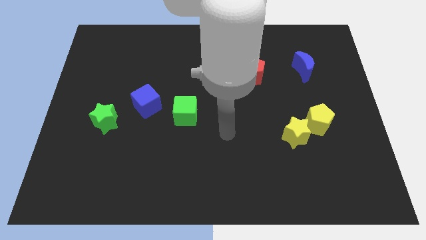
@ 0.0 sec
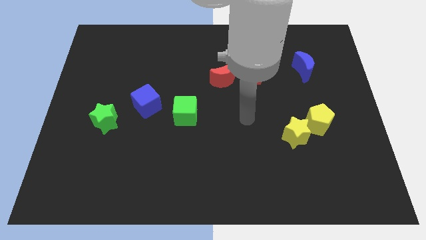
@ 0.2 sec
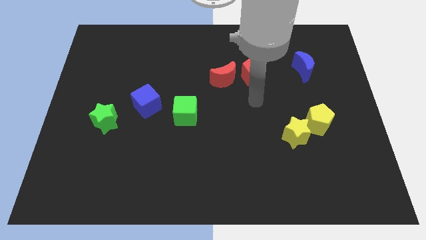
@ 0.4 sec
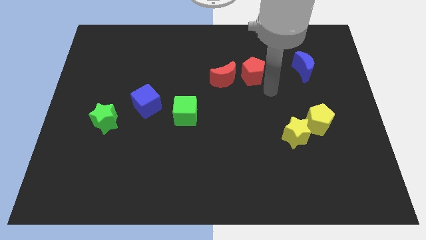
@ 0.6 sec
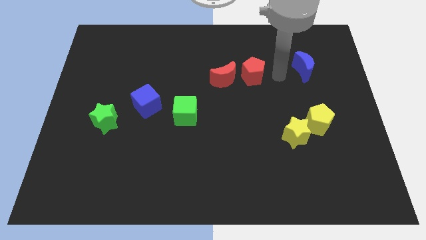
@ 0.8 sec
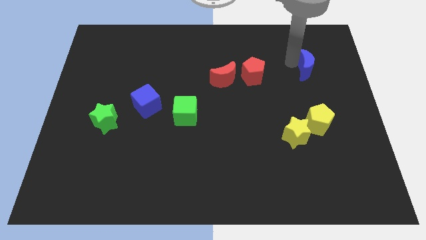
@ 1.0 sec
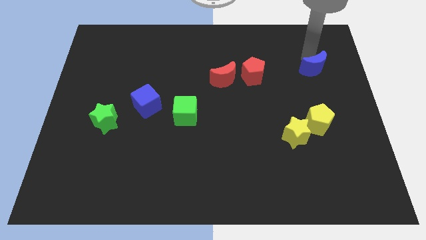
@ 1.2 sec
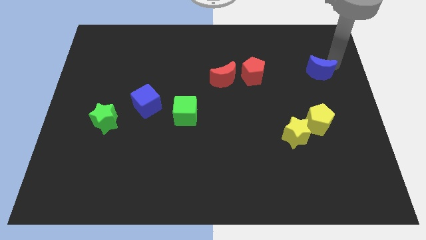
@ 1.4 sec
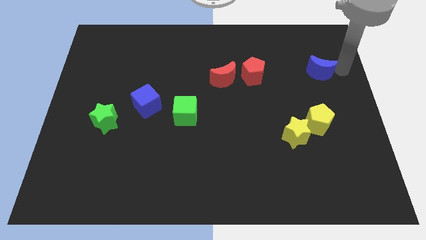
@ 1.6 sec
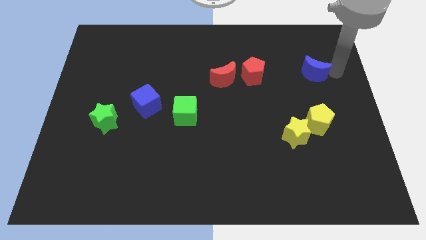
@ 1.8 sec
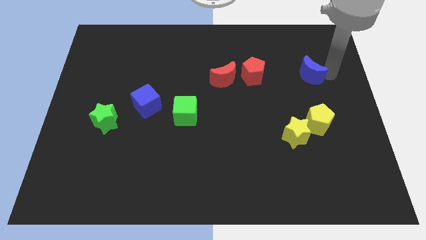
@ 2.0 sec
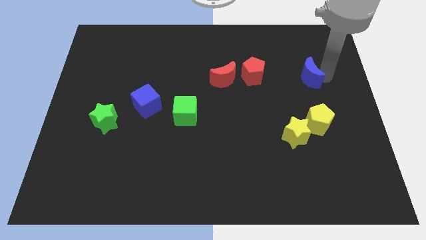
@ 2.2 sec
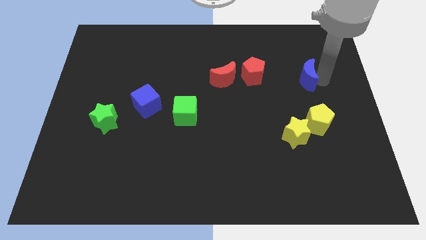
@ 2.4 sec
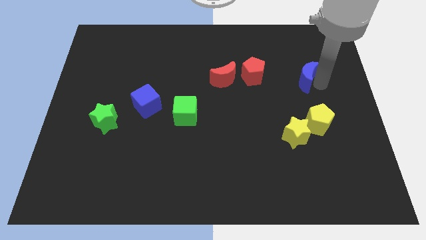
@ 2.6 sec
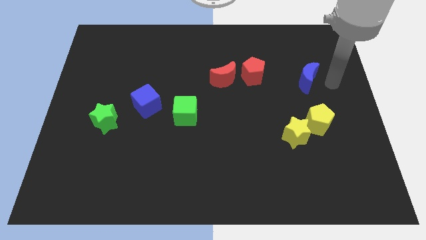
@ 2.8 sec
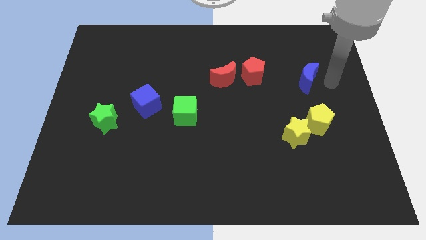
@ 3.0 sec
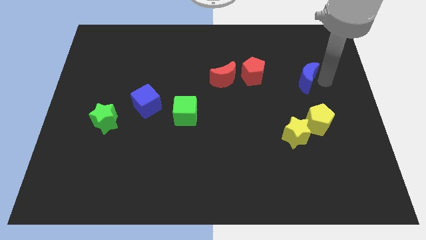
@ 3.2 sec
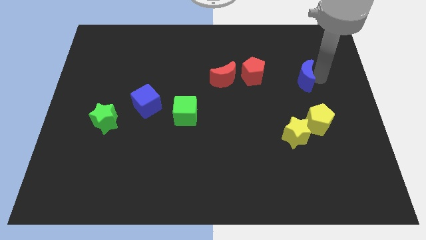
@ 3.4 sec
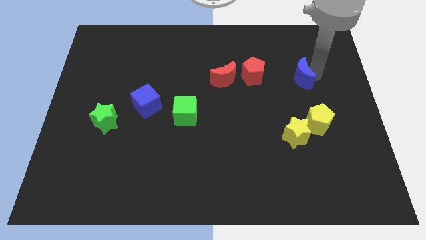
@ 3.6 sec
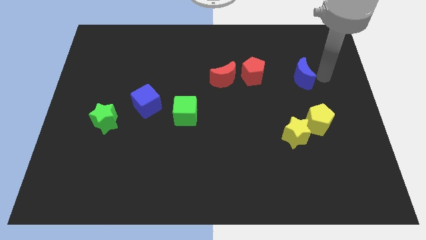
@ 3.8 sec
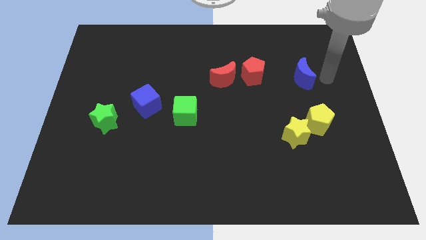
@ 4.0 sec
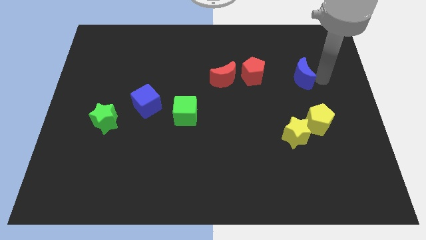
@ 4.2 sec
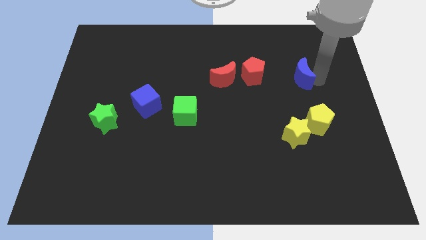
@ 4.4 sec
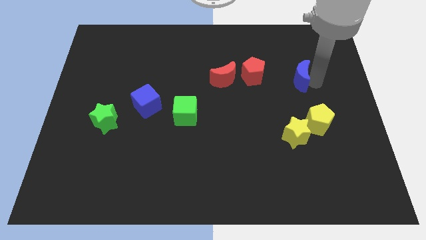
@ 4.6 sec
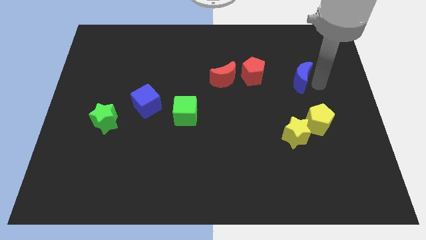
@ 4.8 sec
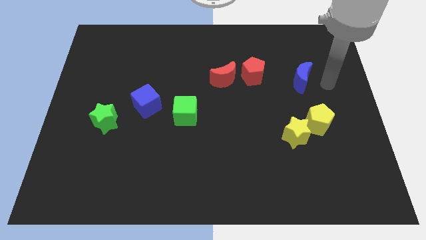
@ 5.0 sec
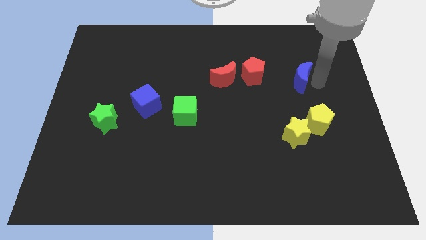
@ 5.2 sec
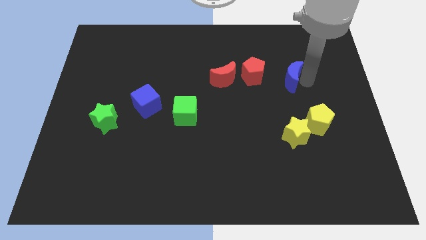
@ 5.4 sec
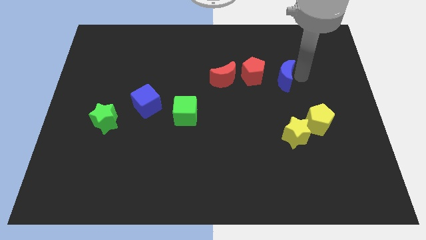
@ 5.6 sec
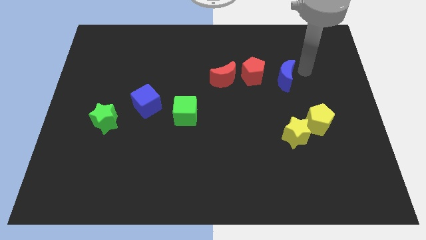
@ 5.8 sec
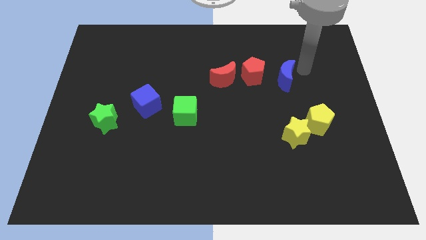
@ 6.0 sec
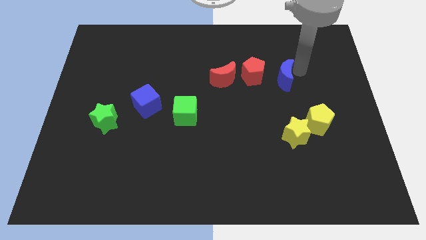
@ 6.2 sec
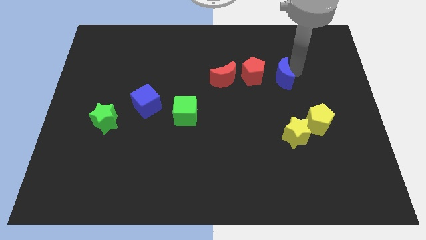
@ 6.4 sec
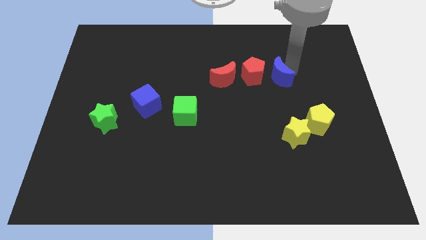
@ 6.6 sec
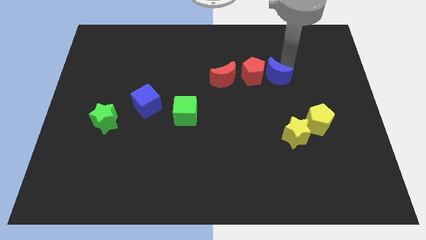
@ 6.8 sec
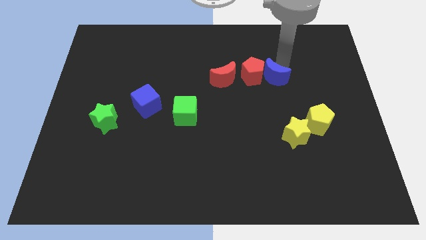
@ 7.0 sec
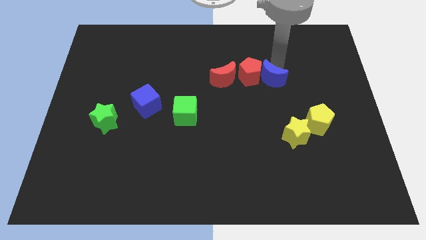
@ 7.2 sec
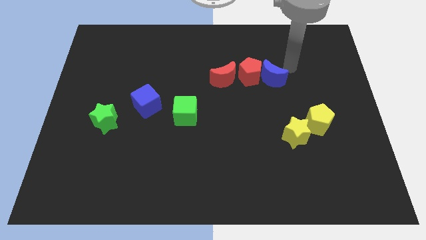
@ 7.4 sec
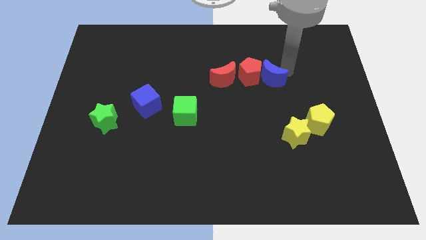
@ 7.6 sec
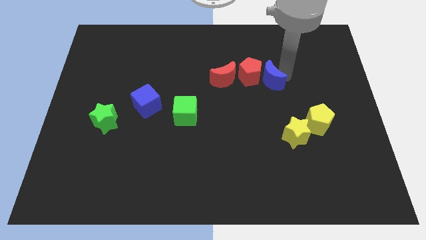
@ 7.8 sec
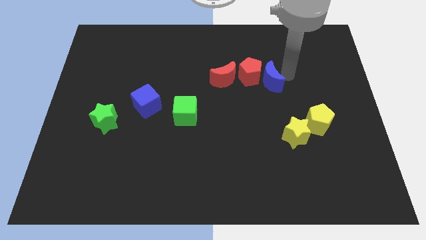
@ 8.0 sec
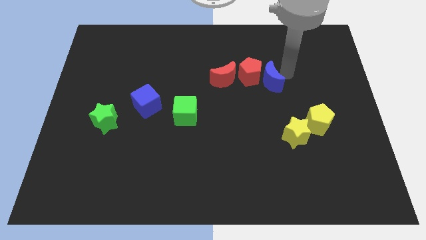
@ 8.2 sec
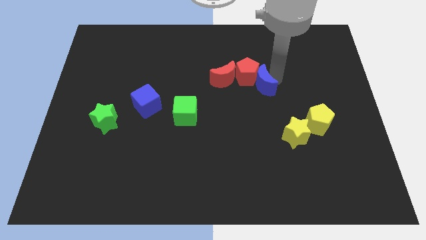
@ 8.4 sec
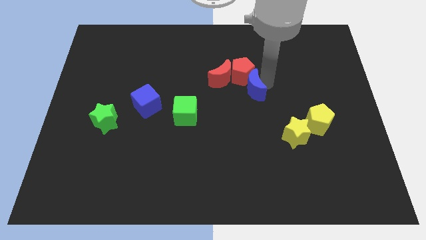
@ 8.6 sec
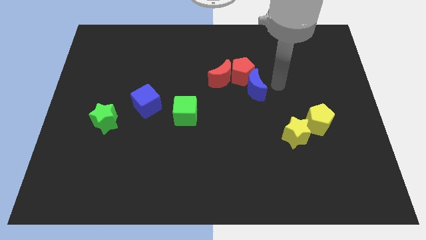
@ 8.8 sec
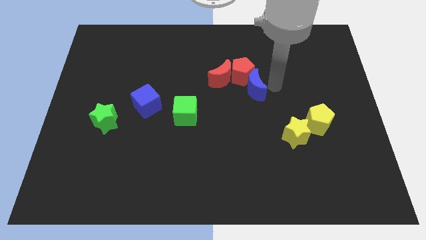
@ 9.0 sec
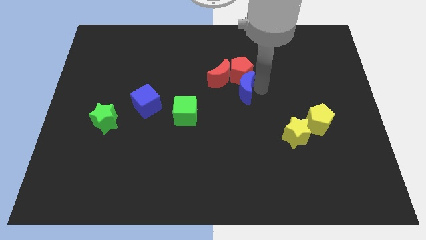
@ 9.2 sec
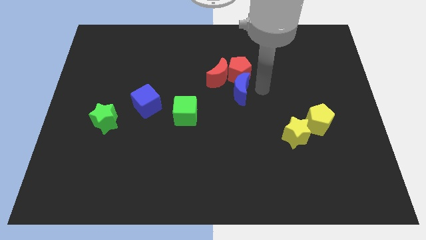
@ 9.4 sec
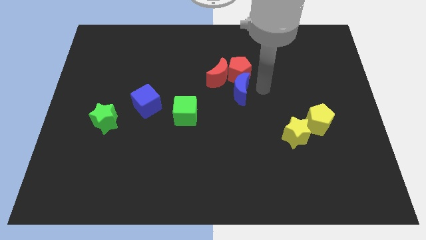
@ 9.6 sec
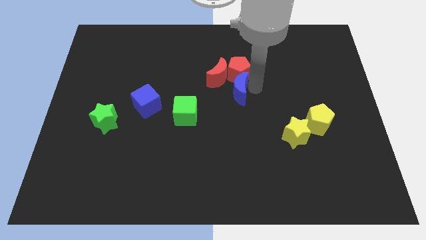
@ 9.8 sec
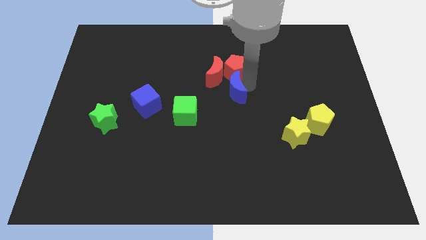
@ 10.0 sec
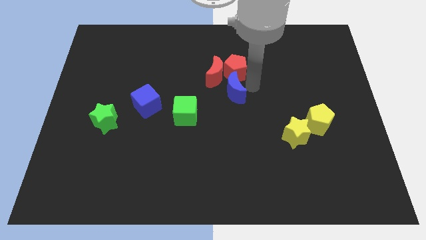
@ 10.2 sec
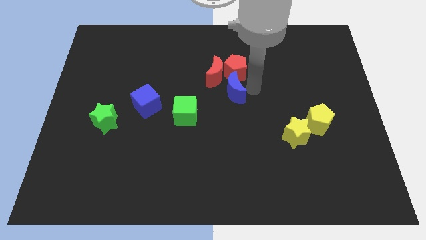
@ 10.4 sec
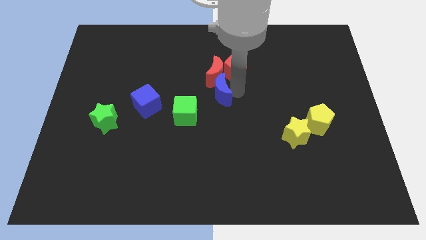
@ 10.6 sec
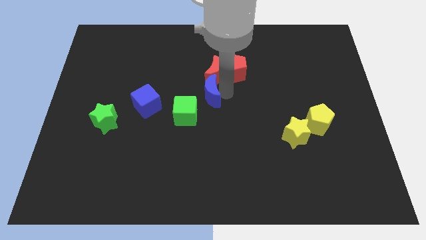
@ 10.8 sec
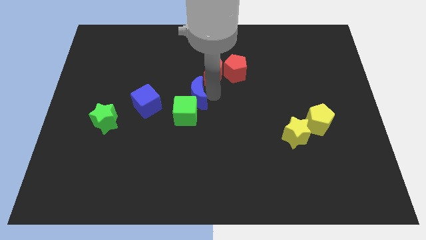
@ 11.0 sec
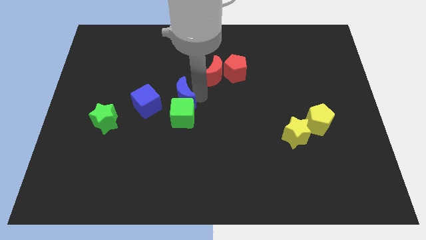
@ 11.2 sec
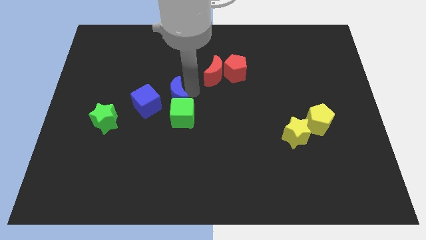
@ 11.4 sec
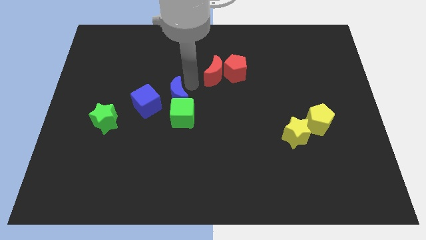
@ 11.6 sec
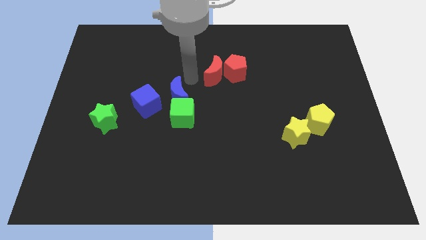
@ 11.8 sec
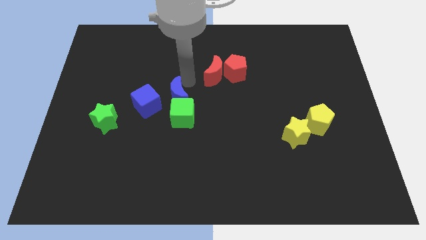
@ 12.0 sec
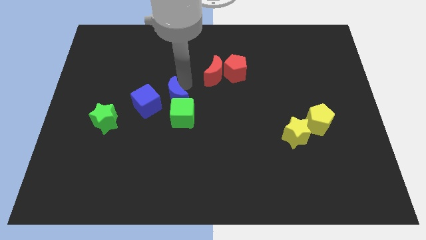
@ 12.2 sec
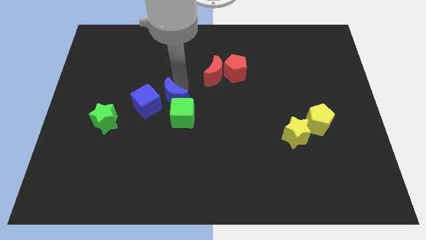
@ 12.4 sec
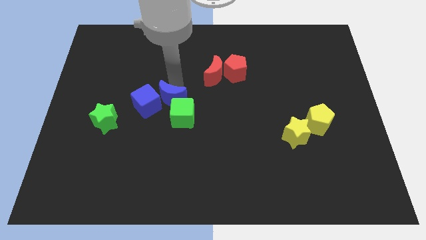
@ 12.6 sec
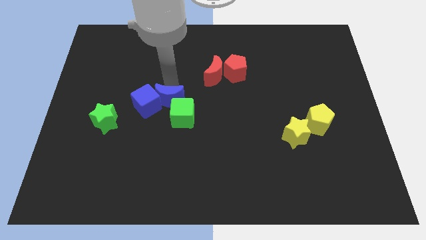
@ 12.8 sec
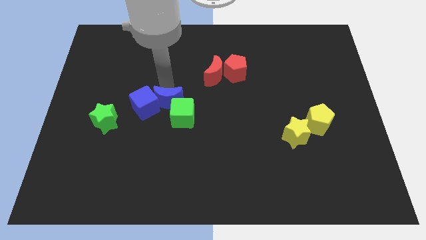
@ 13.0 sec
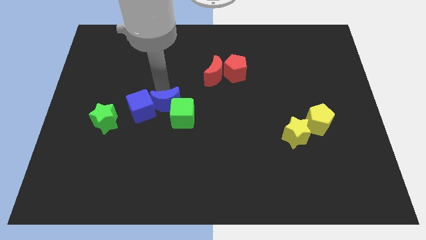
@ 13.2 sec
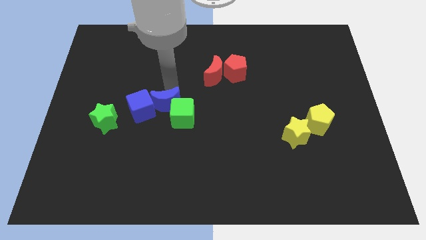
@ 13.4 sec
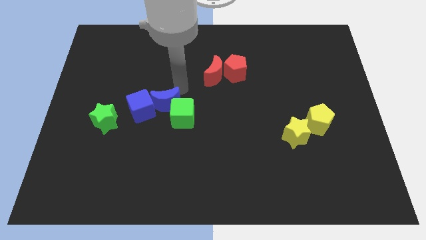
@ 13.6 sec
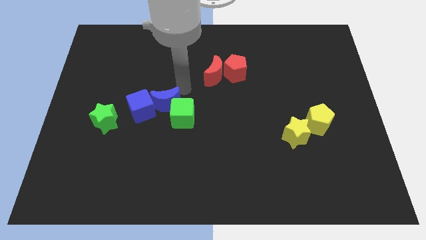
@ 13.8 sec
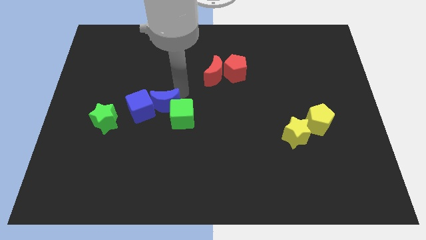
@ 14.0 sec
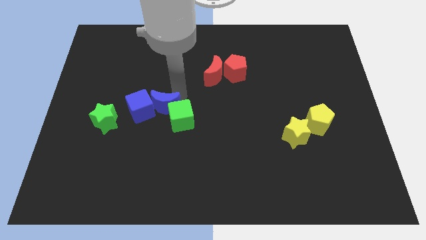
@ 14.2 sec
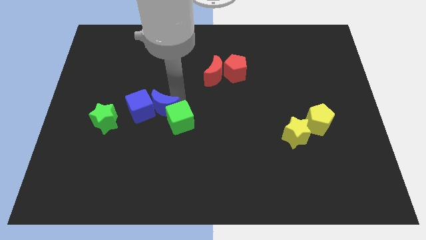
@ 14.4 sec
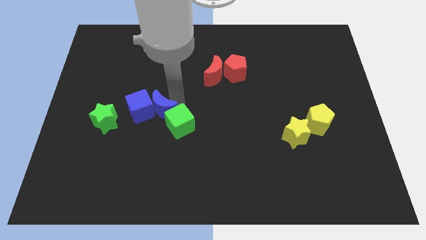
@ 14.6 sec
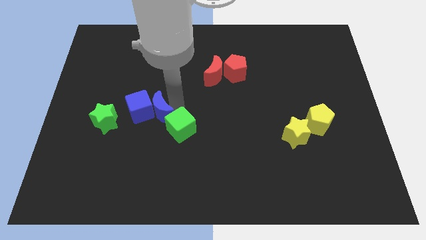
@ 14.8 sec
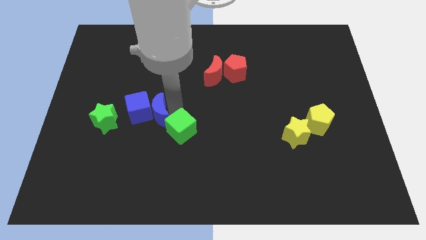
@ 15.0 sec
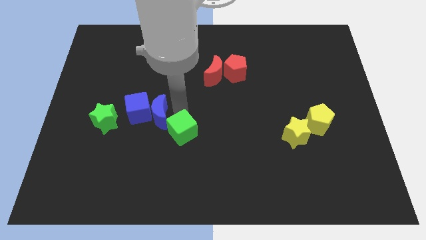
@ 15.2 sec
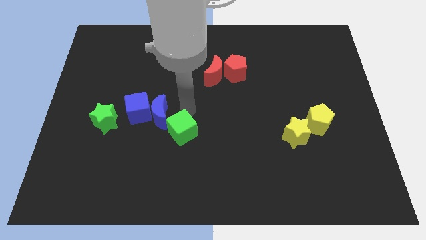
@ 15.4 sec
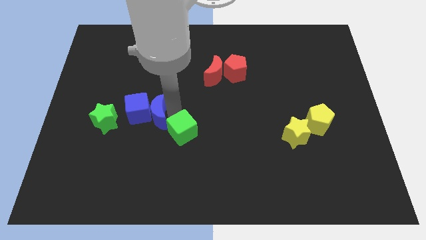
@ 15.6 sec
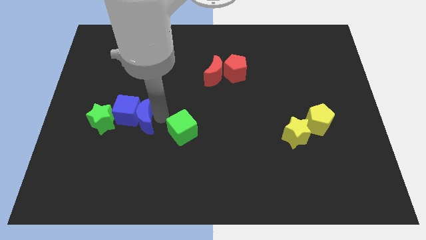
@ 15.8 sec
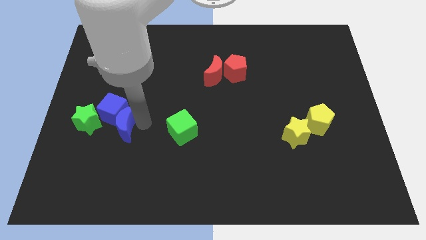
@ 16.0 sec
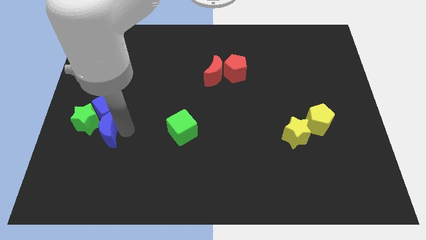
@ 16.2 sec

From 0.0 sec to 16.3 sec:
slide the blue moon next to the green star

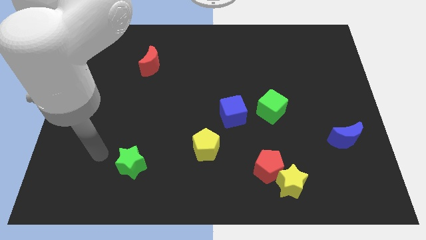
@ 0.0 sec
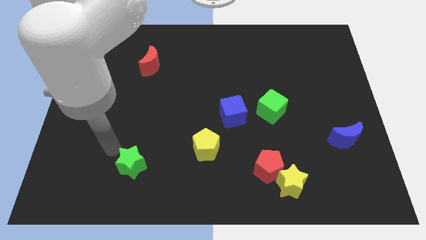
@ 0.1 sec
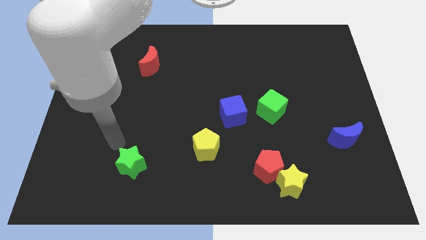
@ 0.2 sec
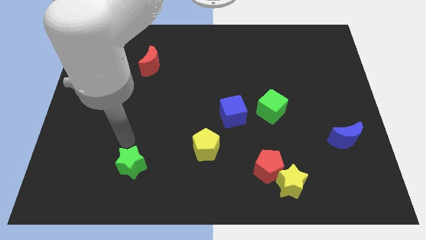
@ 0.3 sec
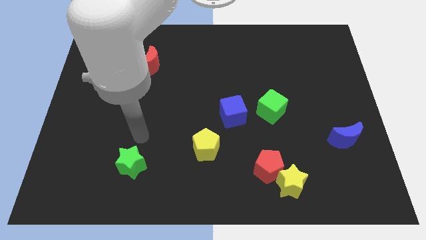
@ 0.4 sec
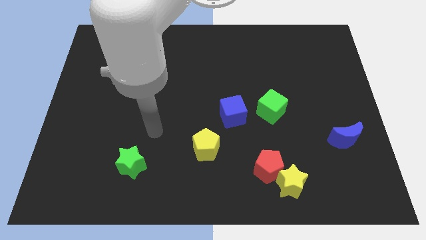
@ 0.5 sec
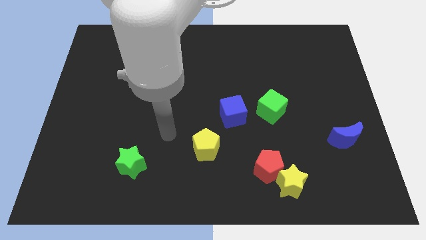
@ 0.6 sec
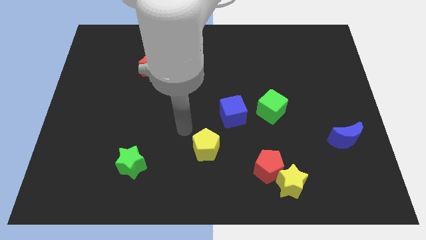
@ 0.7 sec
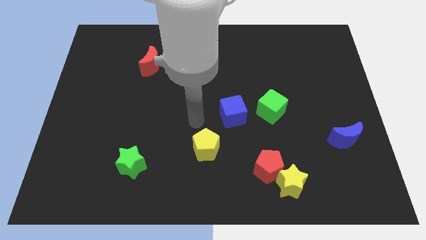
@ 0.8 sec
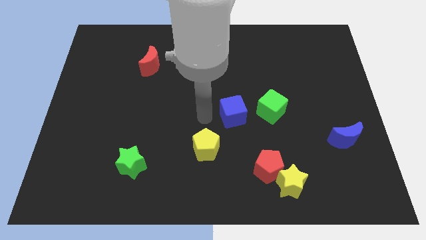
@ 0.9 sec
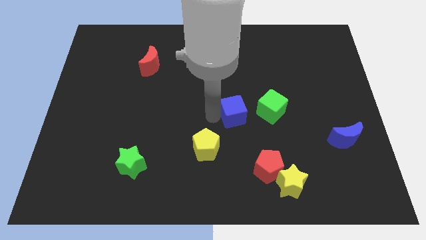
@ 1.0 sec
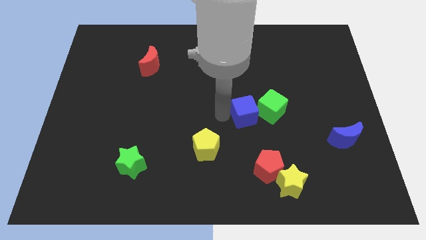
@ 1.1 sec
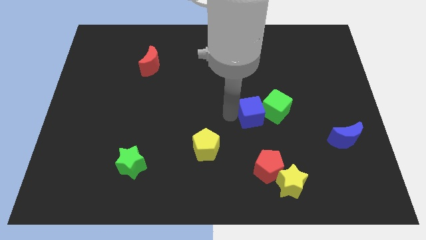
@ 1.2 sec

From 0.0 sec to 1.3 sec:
slide the blue cube to the green cube
